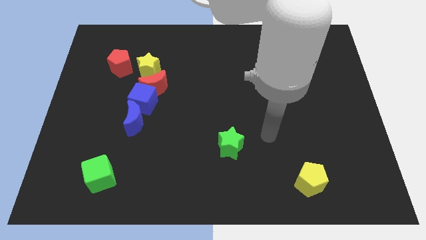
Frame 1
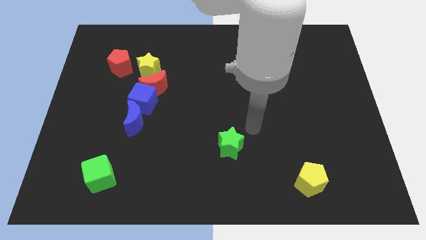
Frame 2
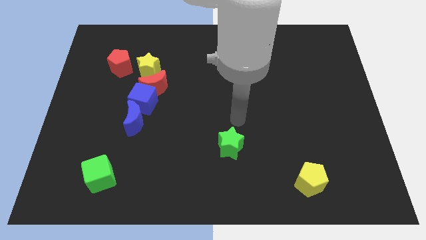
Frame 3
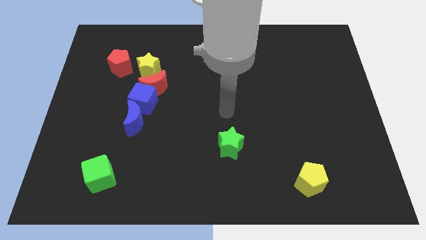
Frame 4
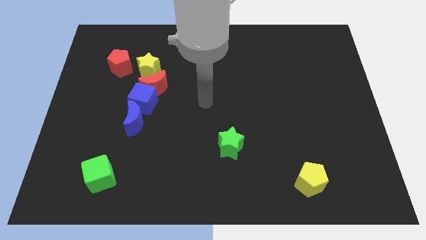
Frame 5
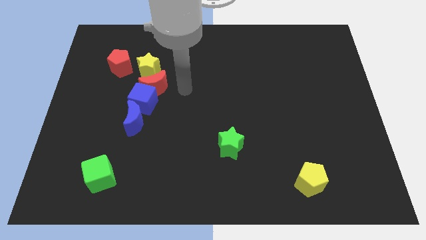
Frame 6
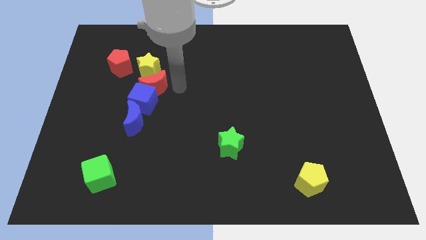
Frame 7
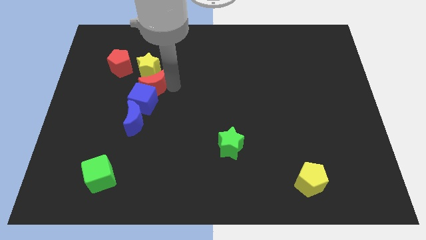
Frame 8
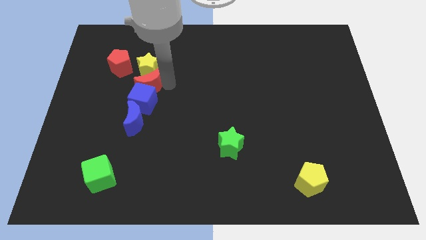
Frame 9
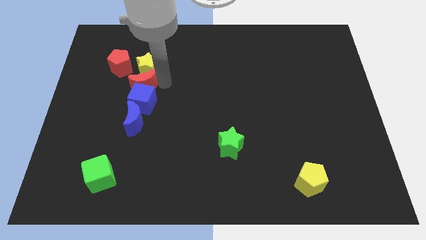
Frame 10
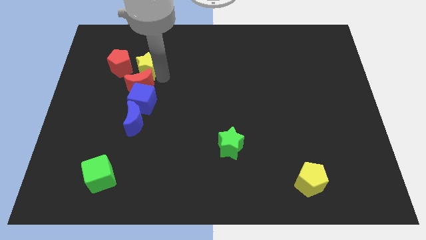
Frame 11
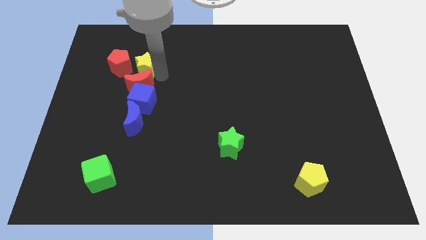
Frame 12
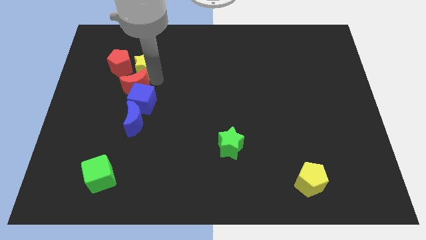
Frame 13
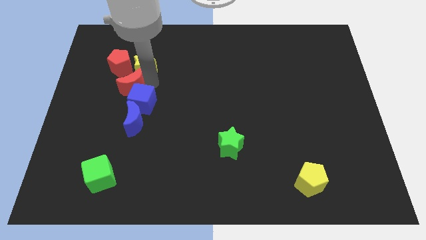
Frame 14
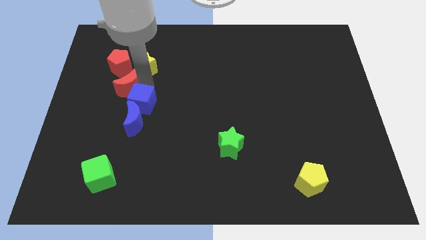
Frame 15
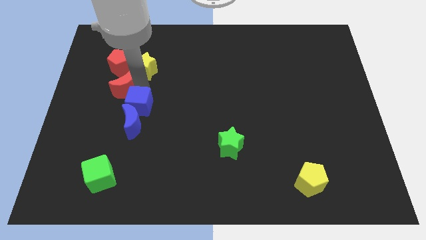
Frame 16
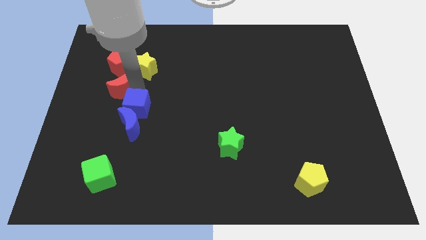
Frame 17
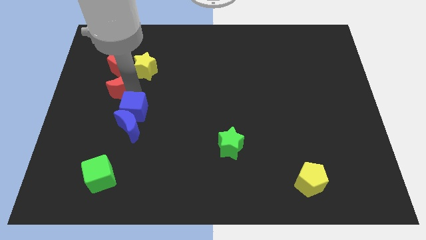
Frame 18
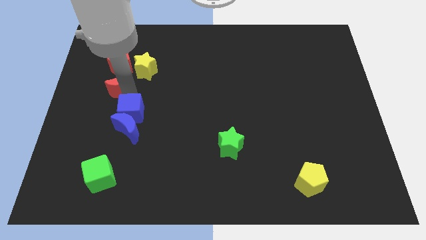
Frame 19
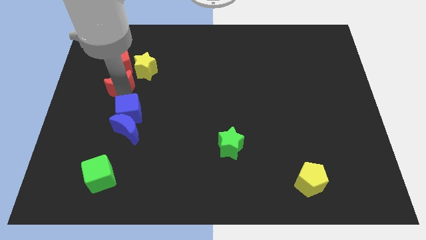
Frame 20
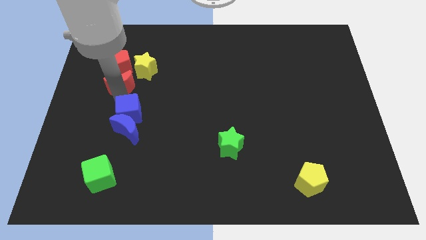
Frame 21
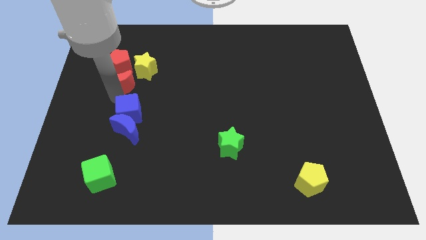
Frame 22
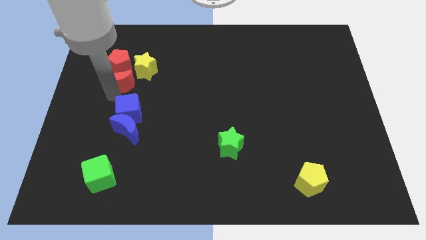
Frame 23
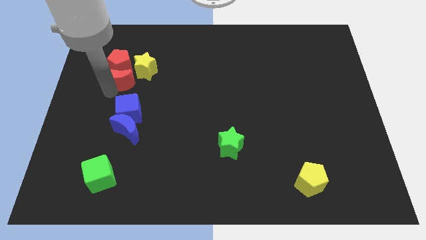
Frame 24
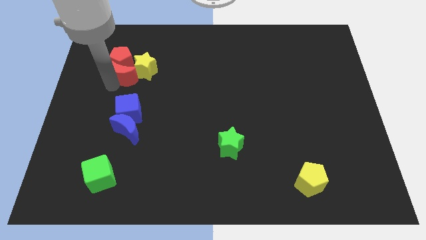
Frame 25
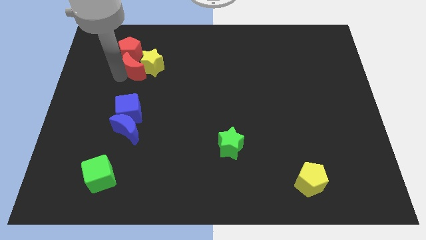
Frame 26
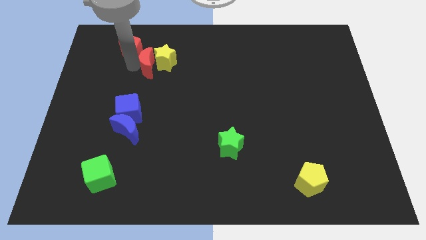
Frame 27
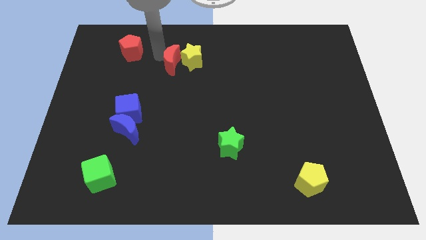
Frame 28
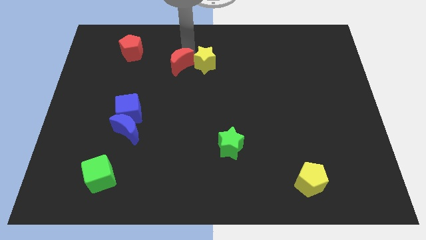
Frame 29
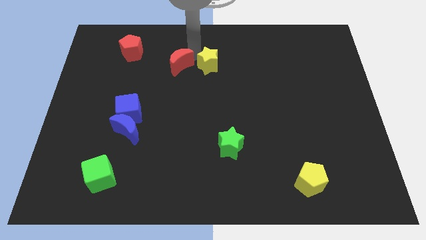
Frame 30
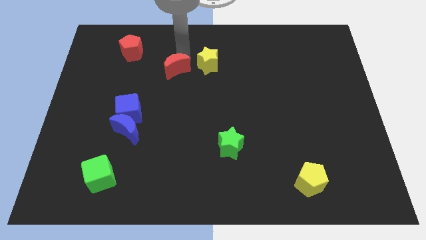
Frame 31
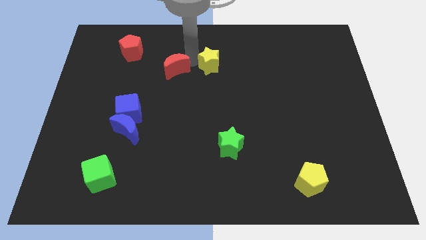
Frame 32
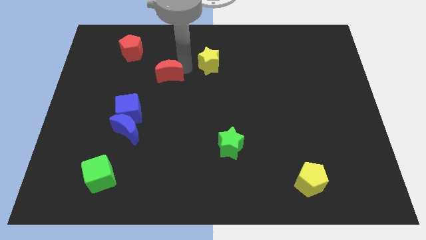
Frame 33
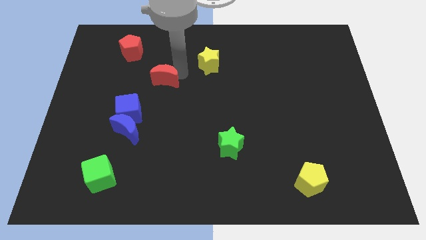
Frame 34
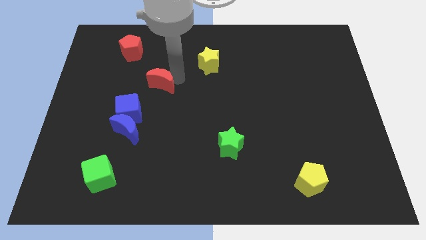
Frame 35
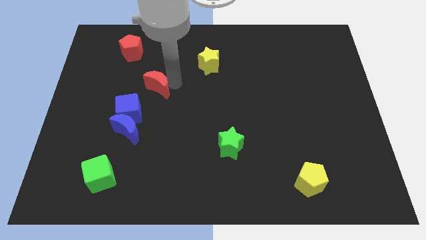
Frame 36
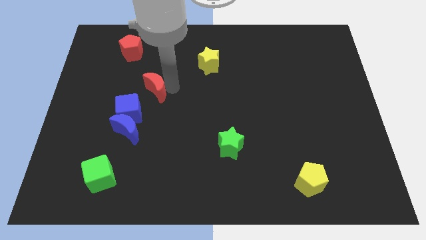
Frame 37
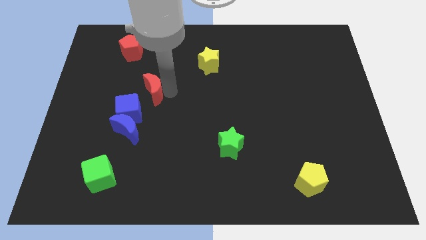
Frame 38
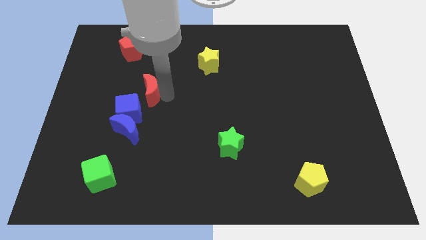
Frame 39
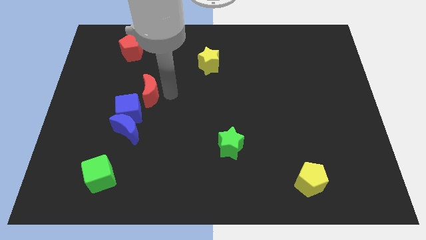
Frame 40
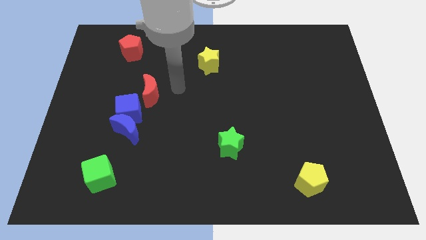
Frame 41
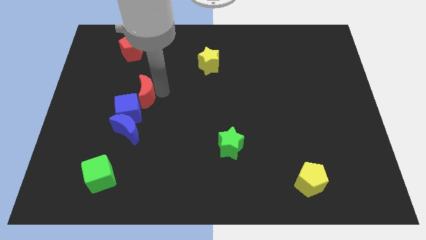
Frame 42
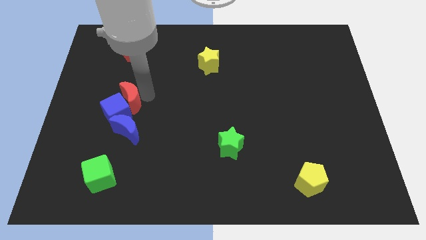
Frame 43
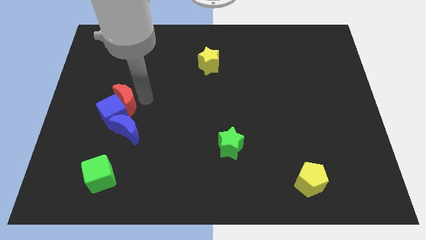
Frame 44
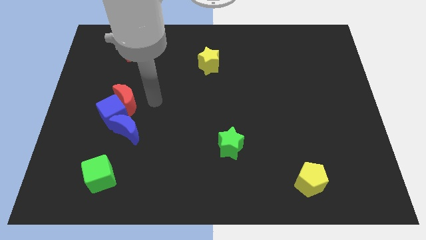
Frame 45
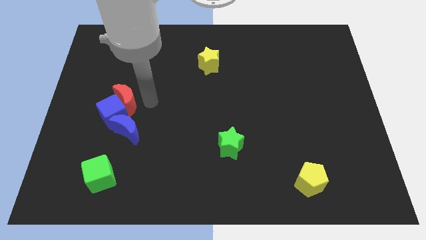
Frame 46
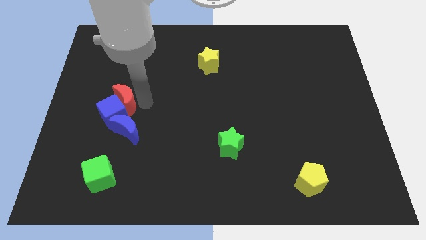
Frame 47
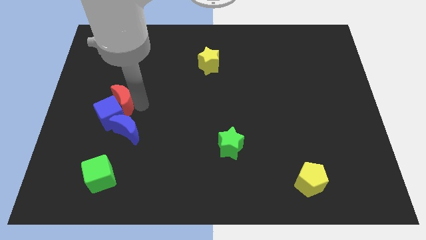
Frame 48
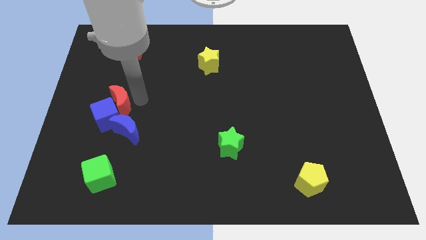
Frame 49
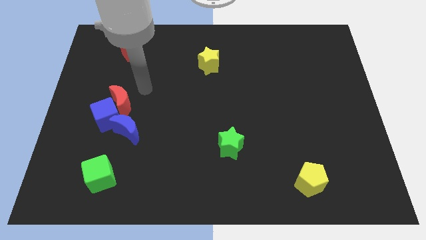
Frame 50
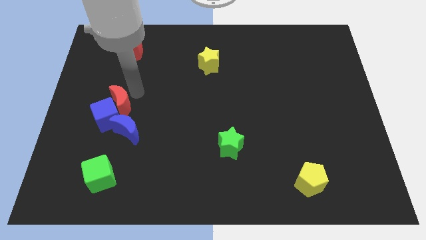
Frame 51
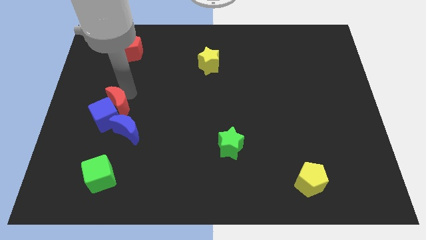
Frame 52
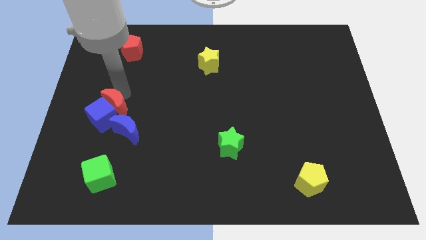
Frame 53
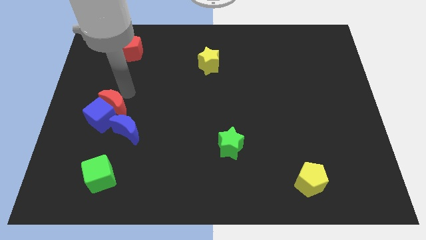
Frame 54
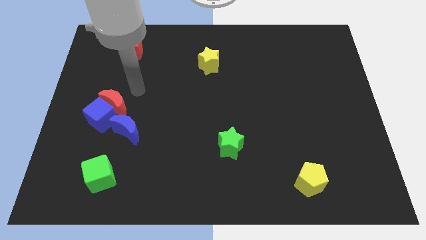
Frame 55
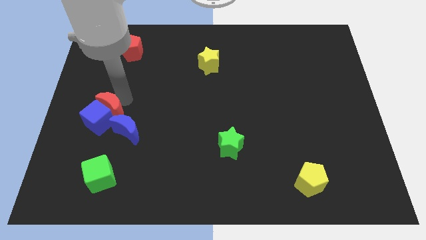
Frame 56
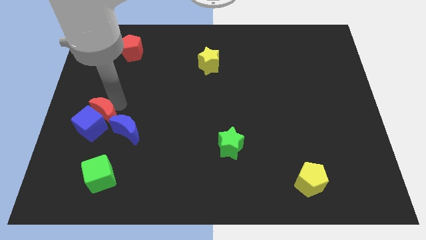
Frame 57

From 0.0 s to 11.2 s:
move the red moon to the left side of the blue moon

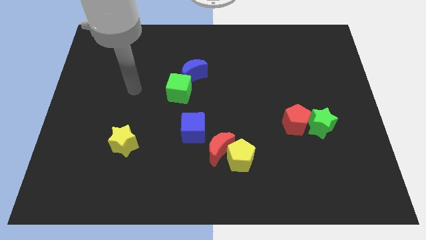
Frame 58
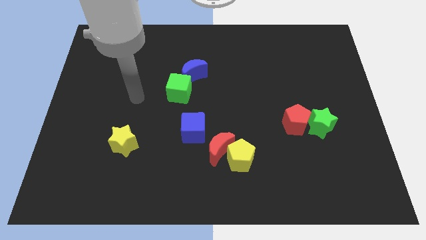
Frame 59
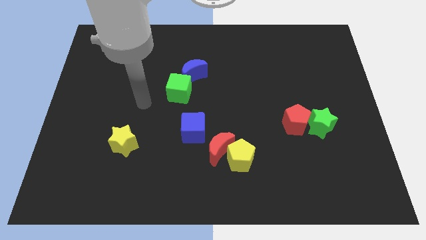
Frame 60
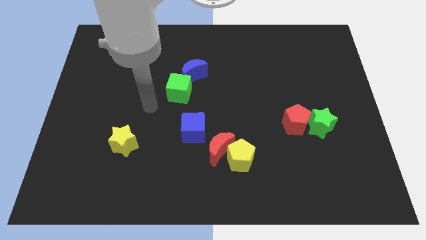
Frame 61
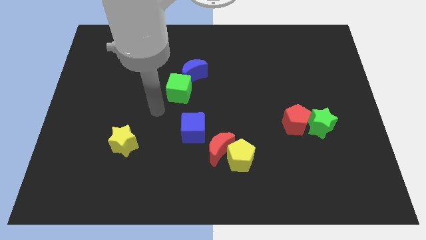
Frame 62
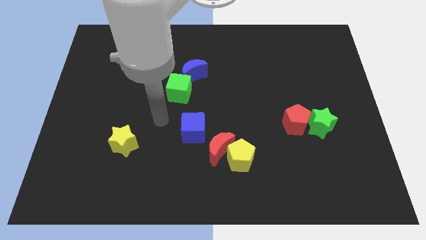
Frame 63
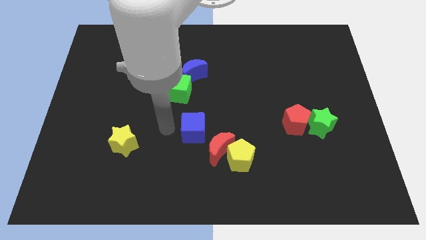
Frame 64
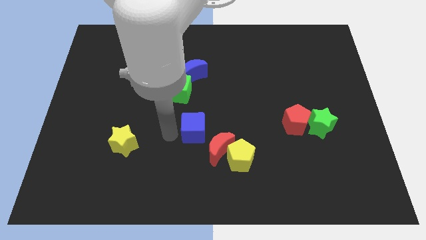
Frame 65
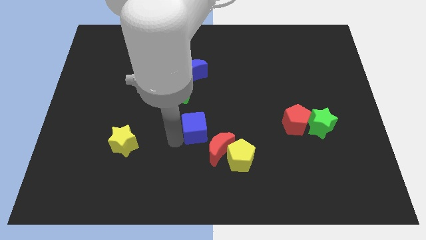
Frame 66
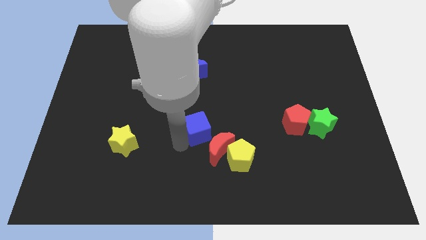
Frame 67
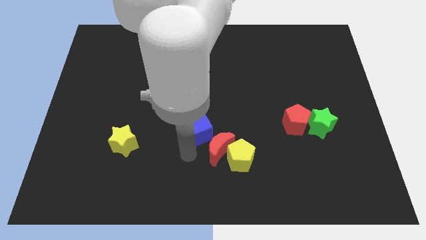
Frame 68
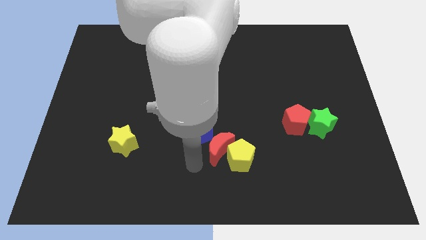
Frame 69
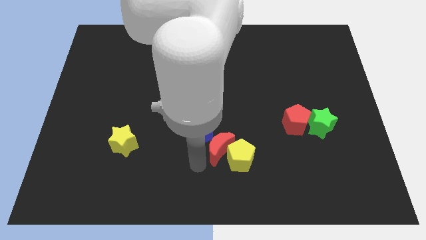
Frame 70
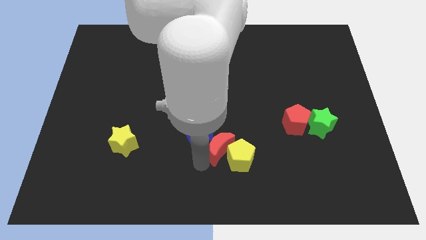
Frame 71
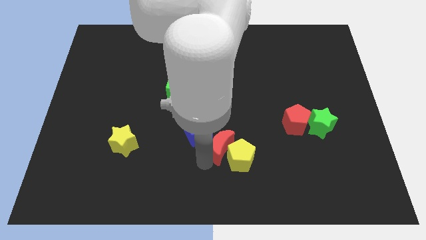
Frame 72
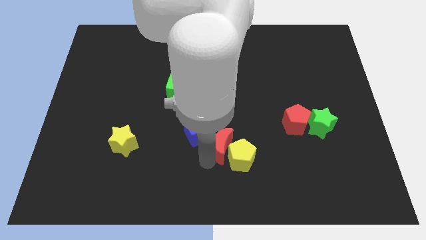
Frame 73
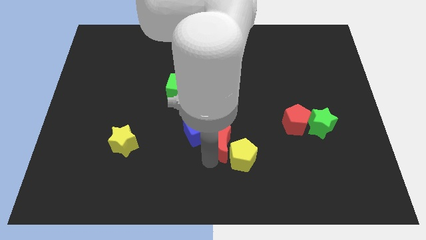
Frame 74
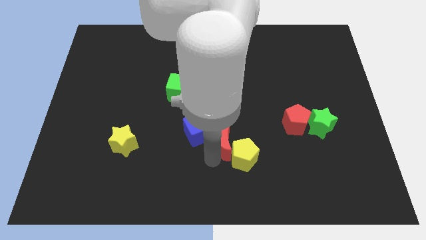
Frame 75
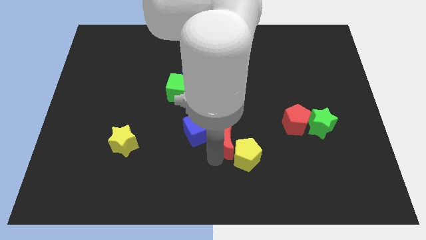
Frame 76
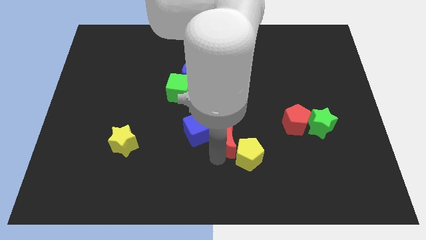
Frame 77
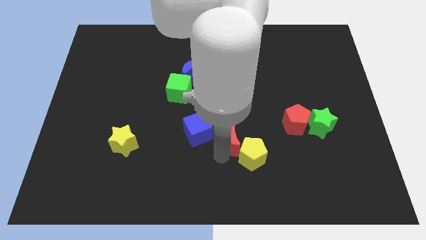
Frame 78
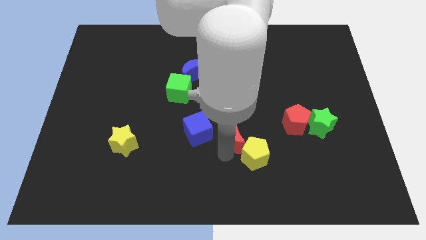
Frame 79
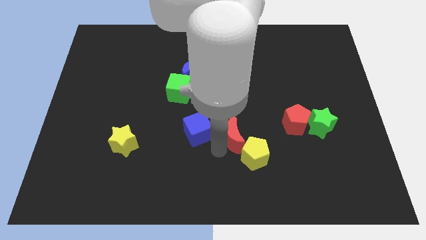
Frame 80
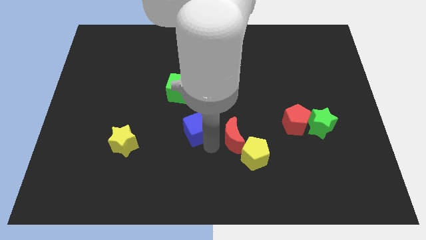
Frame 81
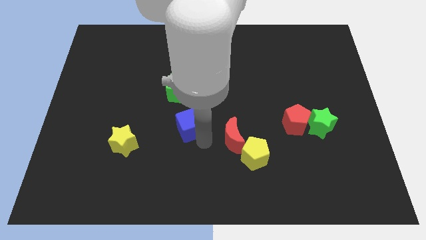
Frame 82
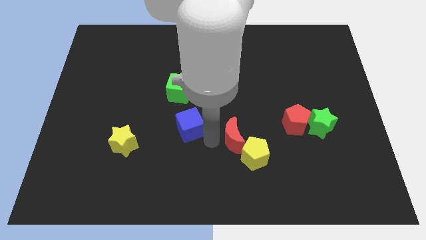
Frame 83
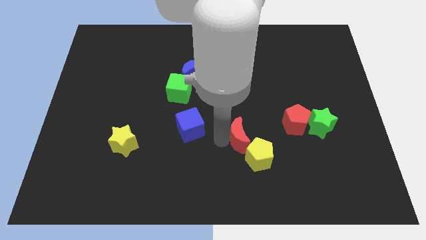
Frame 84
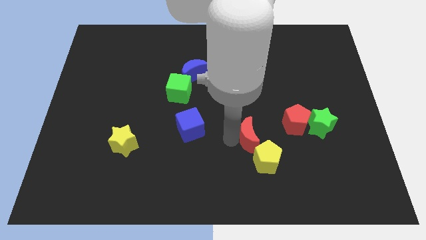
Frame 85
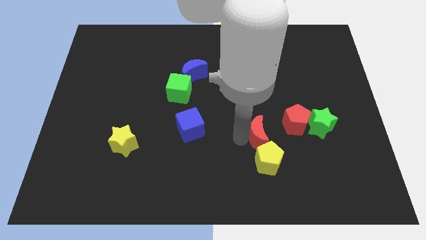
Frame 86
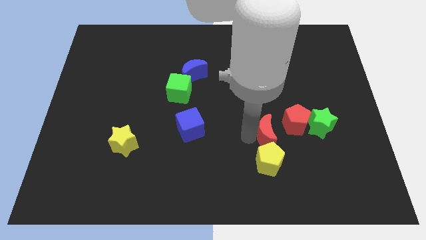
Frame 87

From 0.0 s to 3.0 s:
slide the red moon to the top right side of the yellow pentagon
